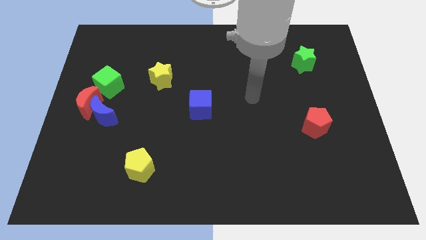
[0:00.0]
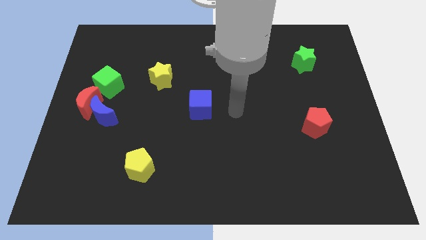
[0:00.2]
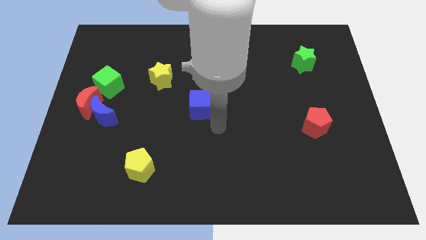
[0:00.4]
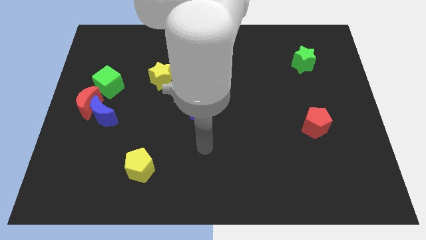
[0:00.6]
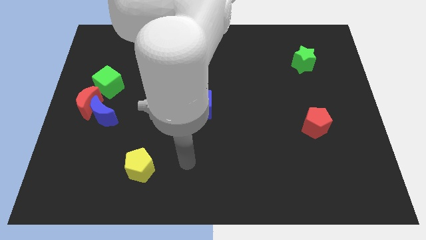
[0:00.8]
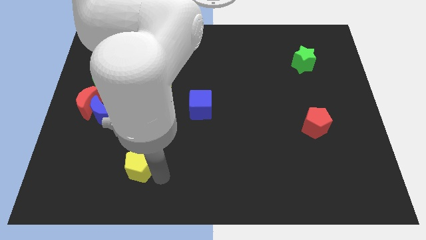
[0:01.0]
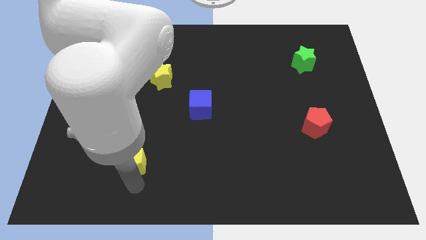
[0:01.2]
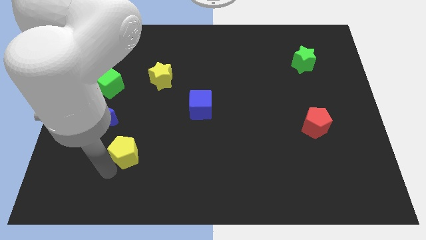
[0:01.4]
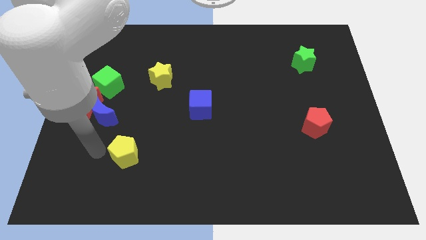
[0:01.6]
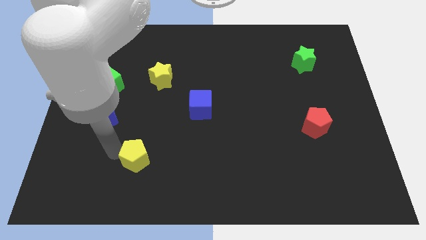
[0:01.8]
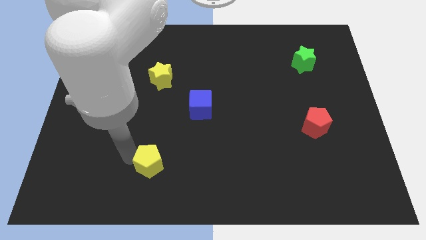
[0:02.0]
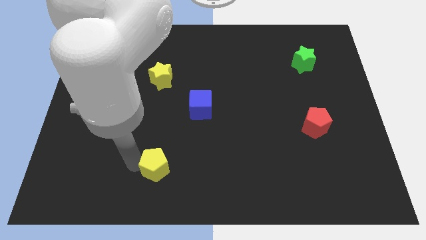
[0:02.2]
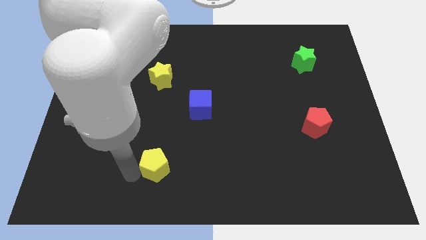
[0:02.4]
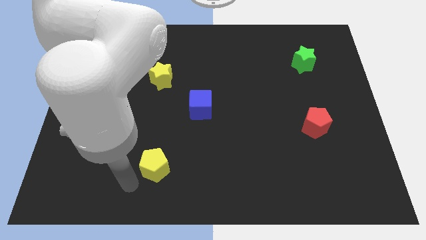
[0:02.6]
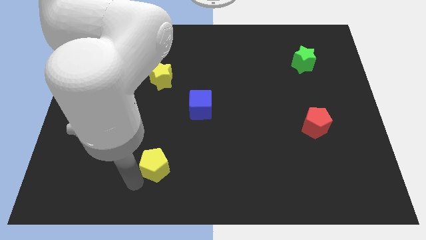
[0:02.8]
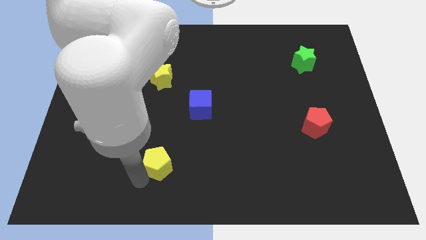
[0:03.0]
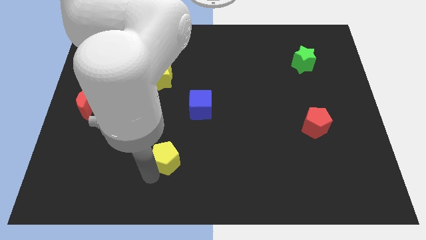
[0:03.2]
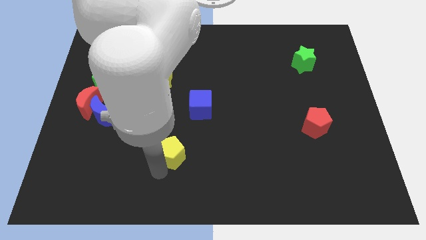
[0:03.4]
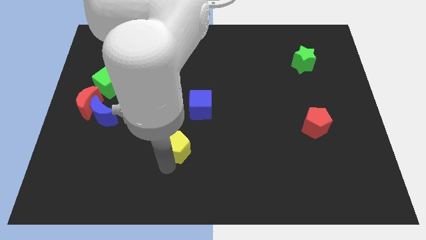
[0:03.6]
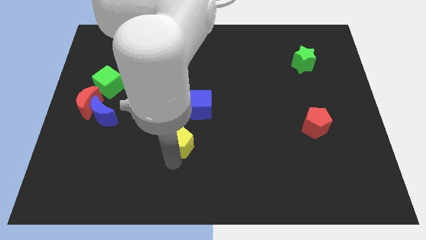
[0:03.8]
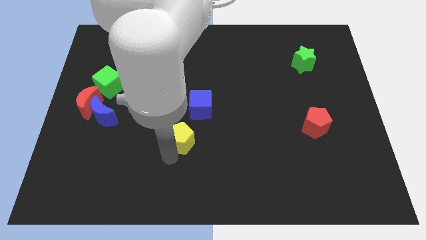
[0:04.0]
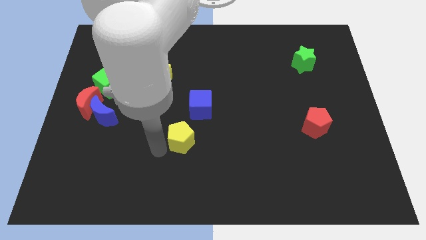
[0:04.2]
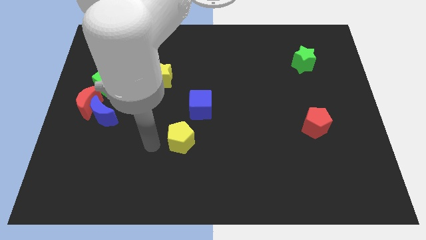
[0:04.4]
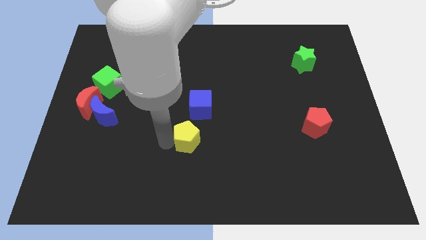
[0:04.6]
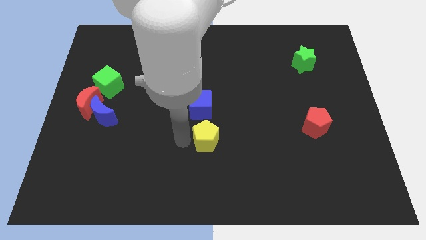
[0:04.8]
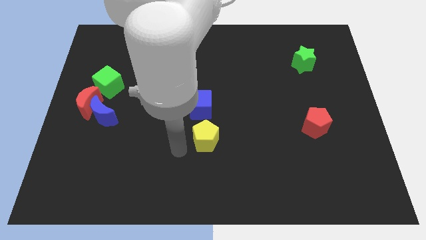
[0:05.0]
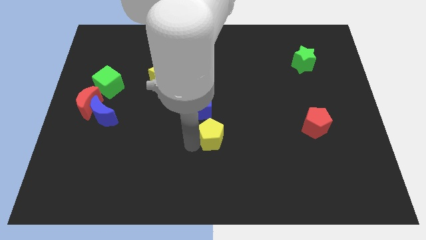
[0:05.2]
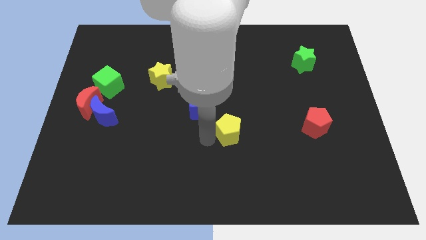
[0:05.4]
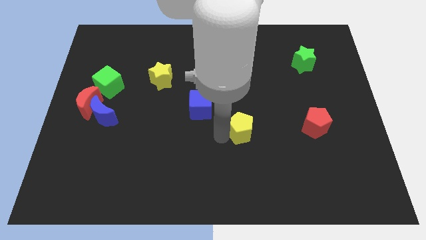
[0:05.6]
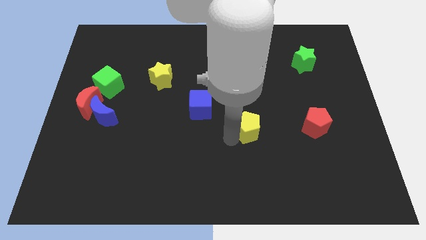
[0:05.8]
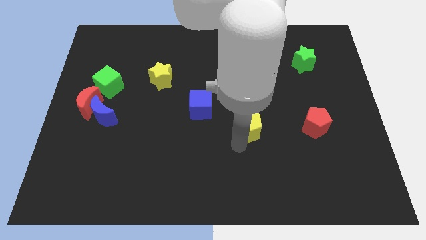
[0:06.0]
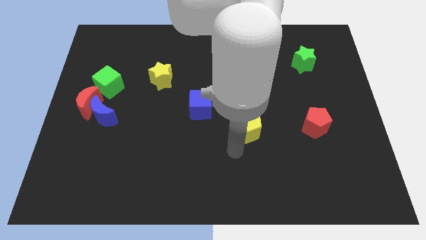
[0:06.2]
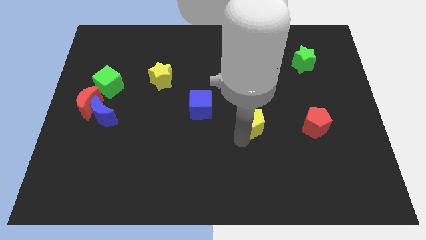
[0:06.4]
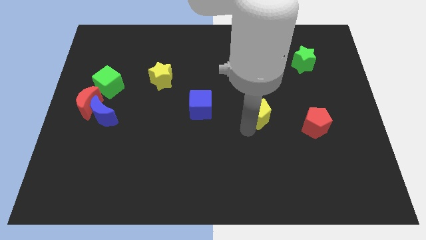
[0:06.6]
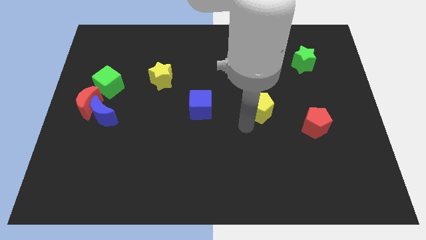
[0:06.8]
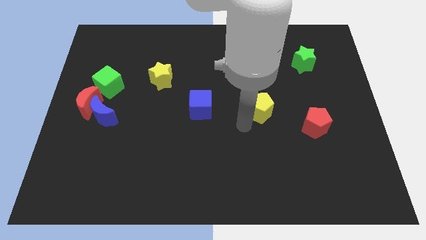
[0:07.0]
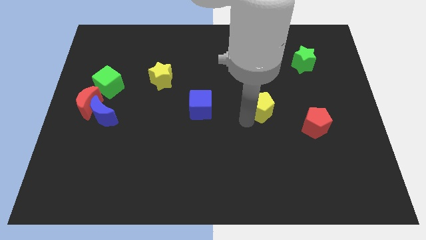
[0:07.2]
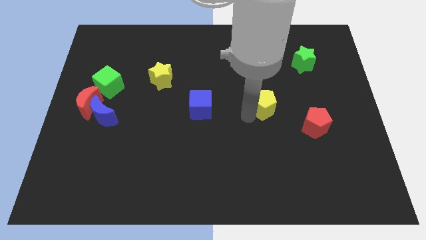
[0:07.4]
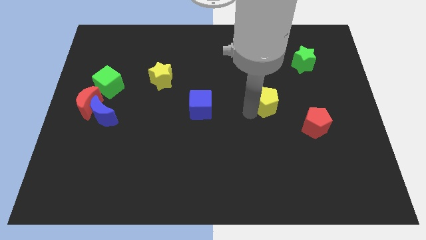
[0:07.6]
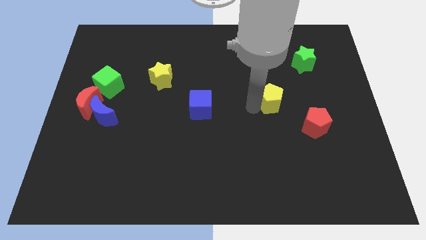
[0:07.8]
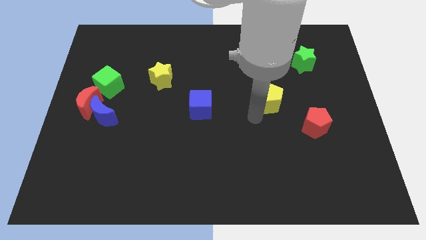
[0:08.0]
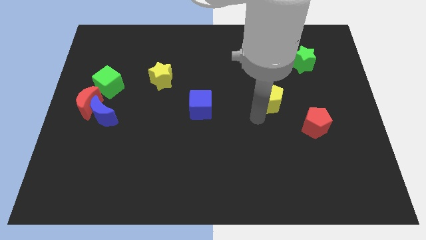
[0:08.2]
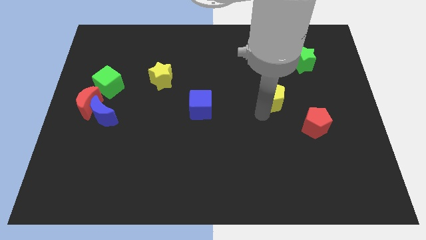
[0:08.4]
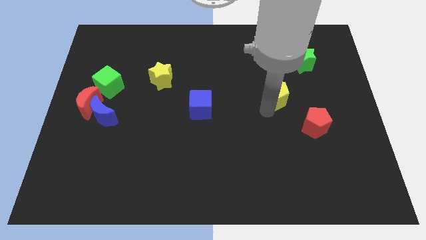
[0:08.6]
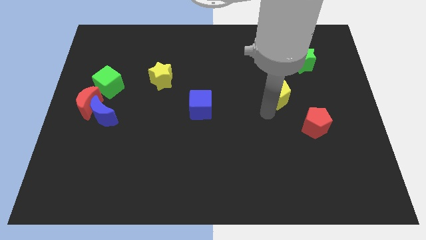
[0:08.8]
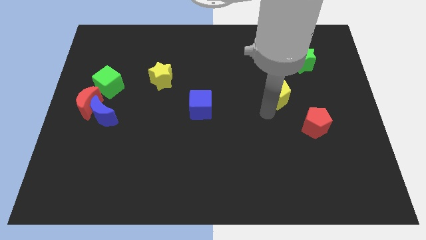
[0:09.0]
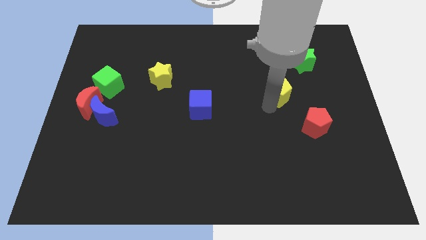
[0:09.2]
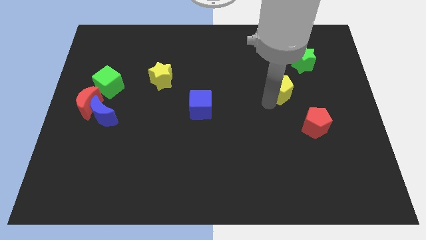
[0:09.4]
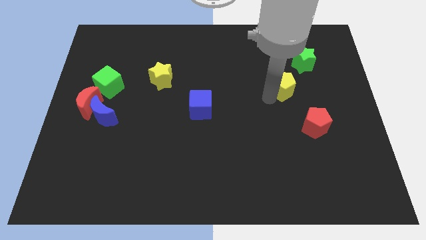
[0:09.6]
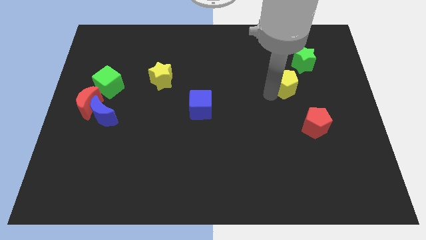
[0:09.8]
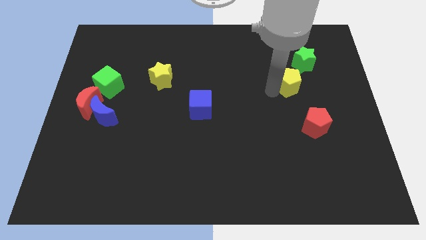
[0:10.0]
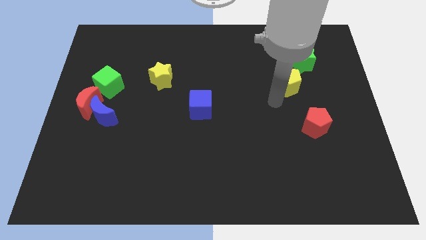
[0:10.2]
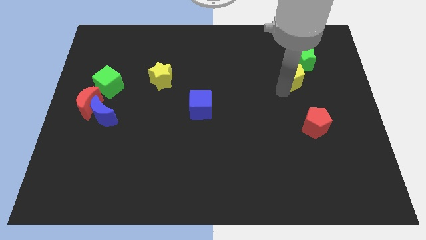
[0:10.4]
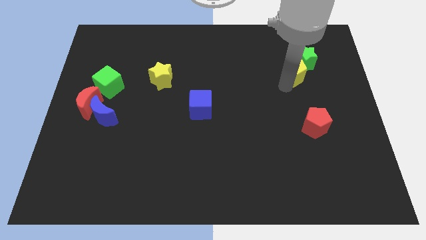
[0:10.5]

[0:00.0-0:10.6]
put the yellow pentagon to the green star

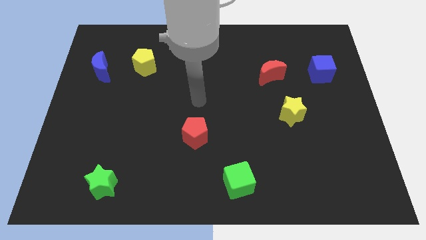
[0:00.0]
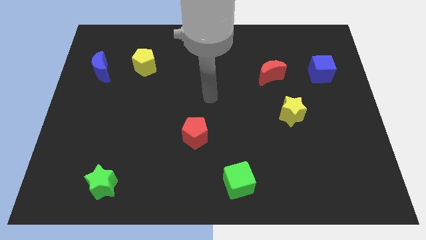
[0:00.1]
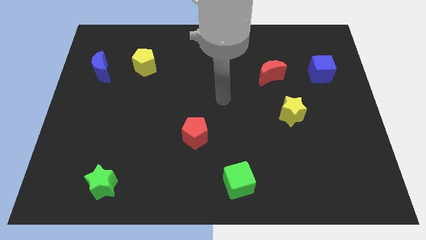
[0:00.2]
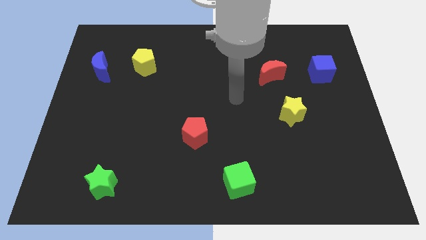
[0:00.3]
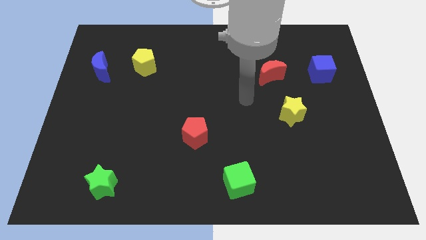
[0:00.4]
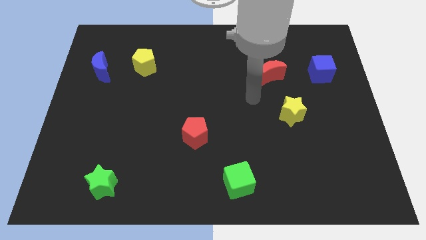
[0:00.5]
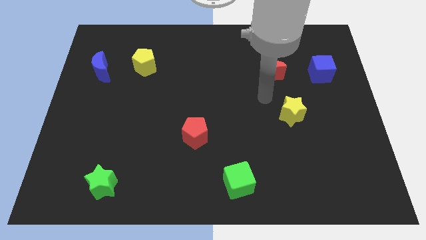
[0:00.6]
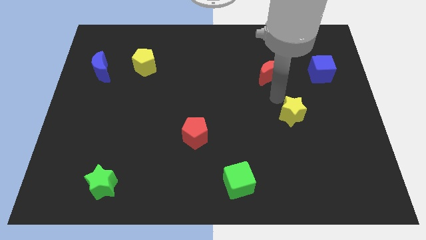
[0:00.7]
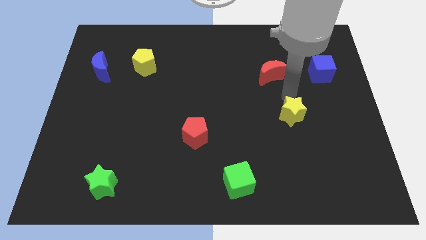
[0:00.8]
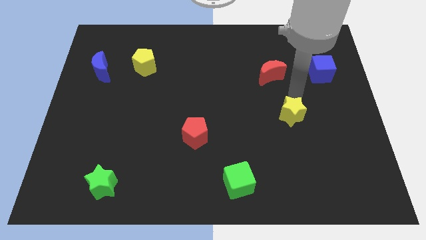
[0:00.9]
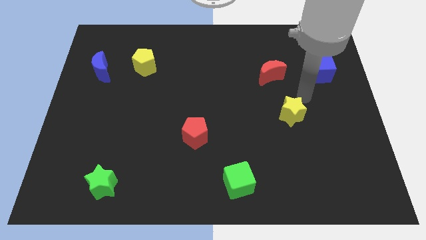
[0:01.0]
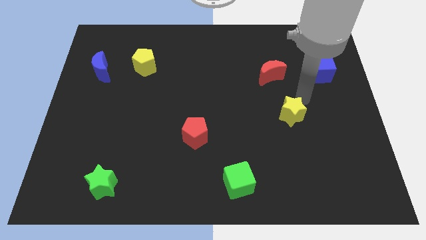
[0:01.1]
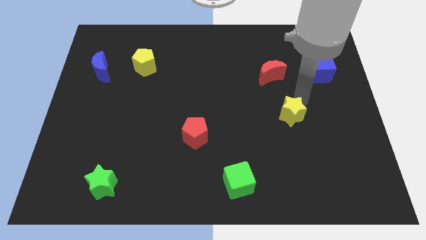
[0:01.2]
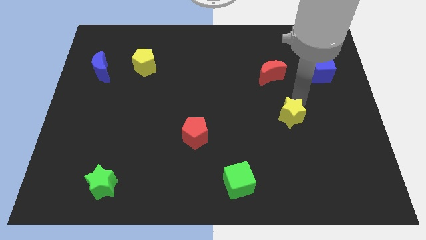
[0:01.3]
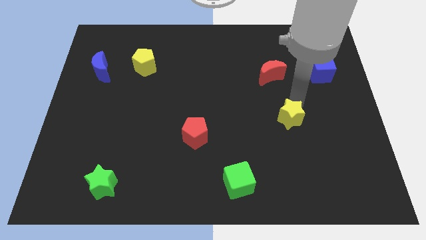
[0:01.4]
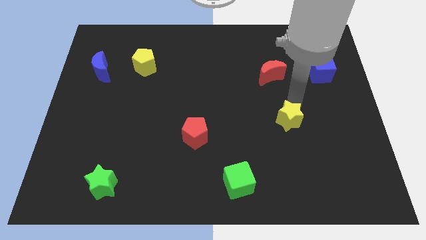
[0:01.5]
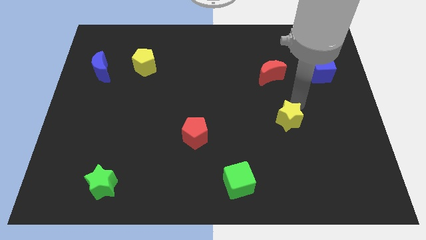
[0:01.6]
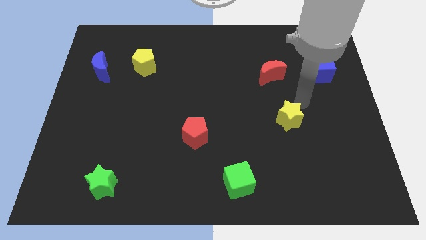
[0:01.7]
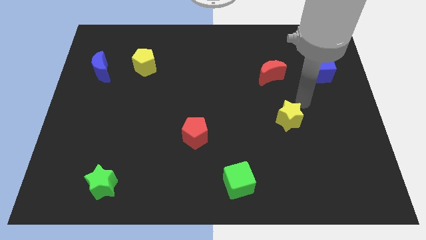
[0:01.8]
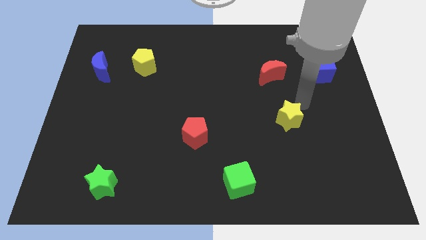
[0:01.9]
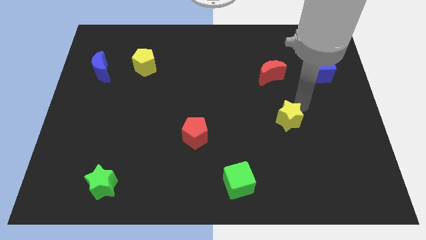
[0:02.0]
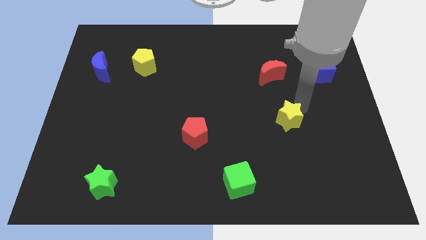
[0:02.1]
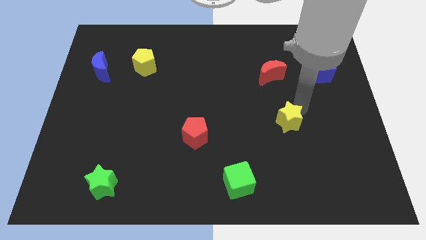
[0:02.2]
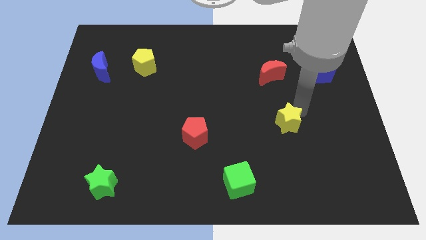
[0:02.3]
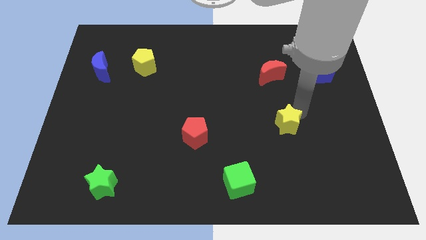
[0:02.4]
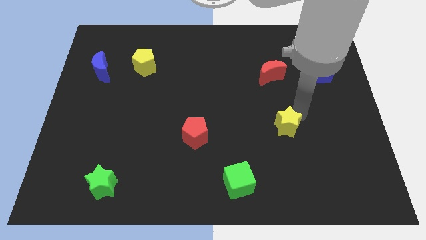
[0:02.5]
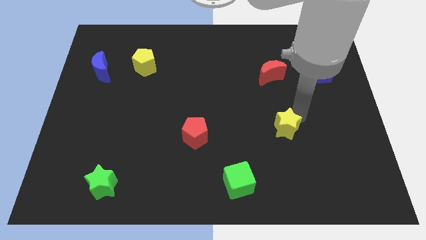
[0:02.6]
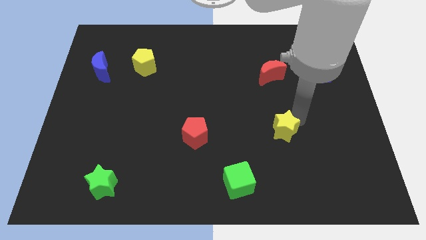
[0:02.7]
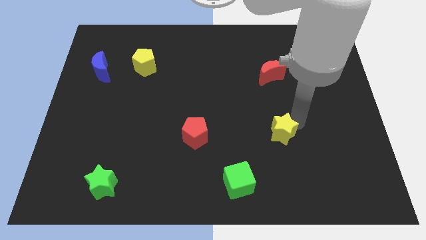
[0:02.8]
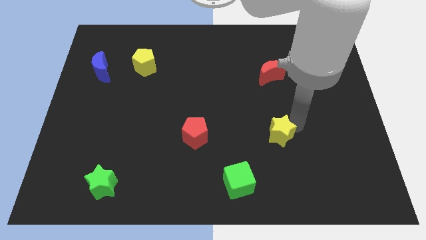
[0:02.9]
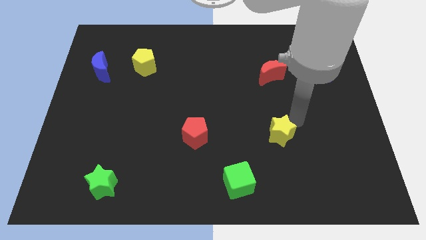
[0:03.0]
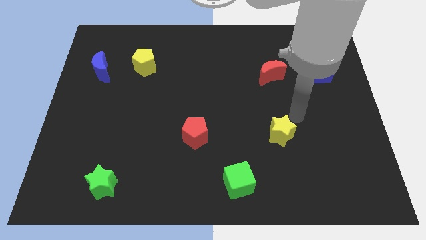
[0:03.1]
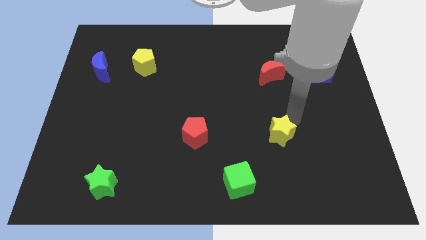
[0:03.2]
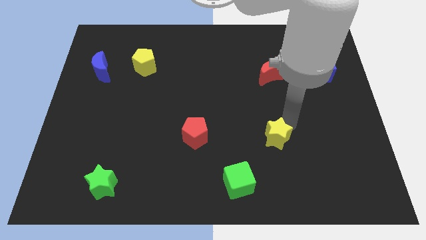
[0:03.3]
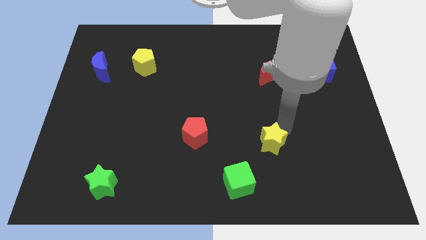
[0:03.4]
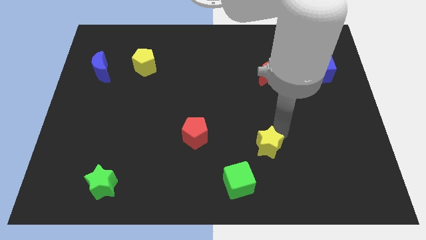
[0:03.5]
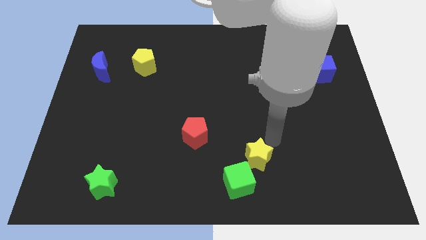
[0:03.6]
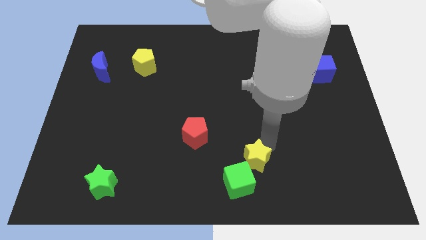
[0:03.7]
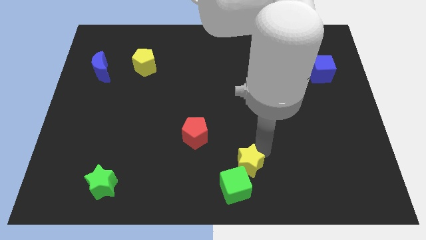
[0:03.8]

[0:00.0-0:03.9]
put the yellow star towards the green cube
